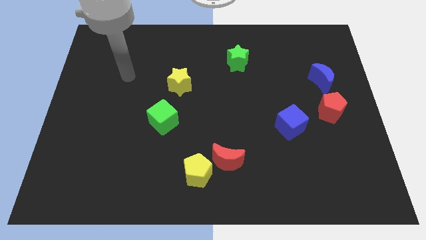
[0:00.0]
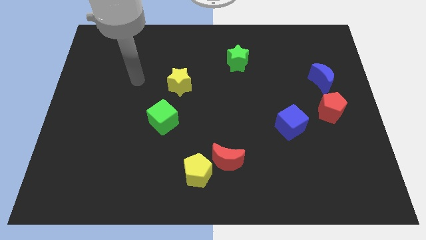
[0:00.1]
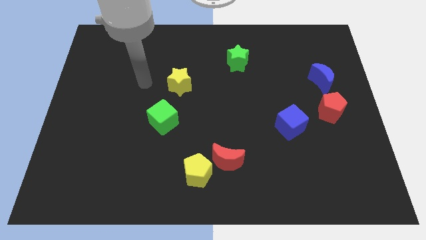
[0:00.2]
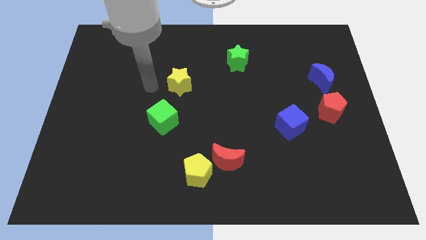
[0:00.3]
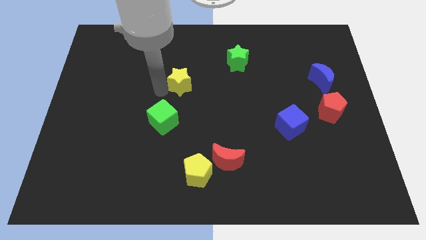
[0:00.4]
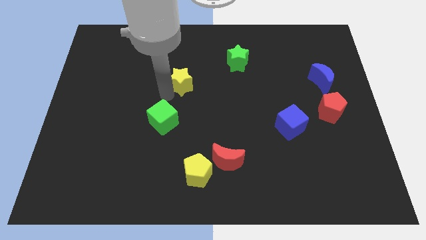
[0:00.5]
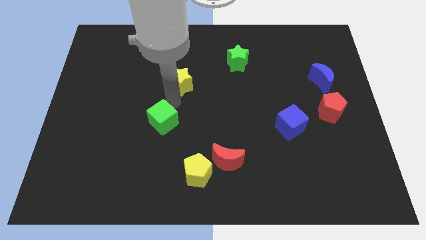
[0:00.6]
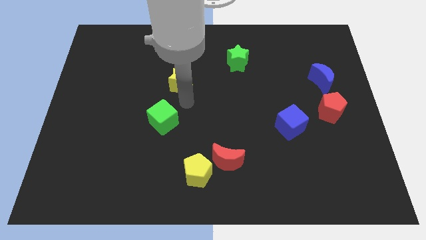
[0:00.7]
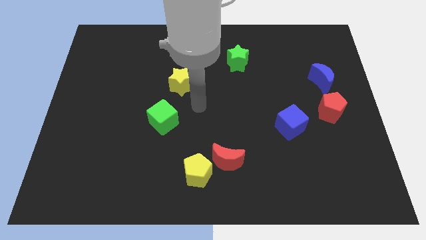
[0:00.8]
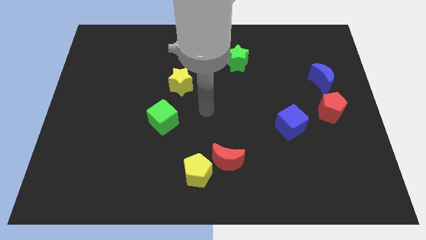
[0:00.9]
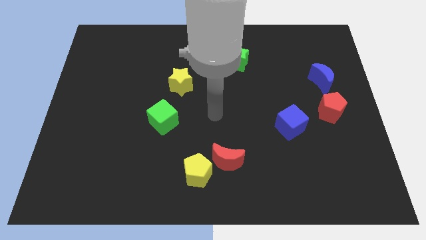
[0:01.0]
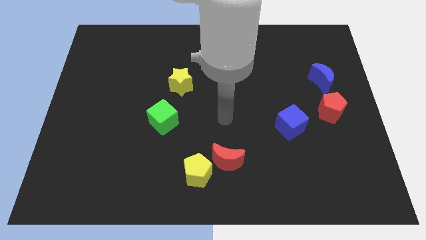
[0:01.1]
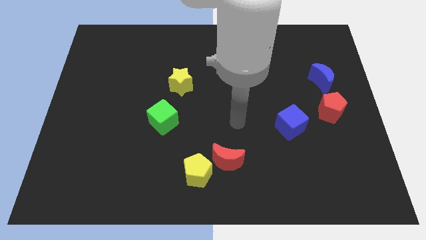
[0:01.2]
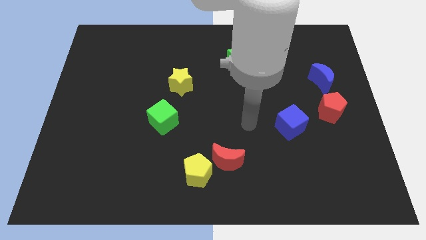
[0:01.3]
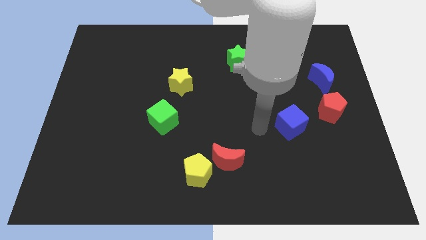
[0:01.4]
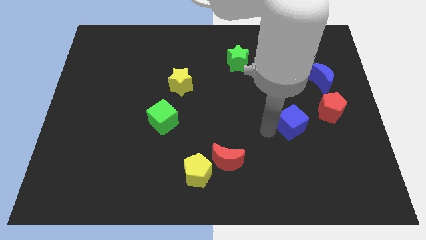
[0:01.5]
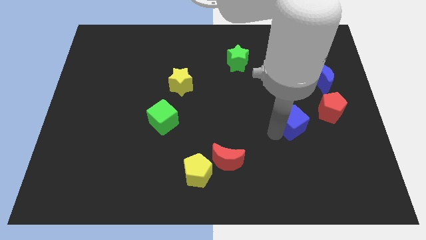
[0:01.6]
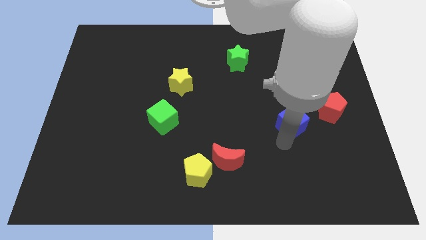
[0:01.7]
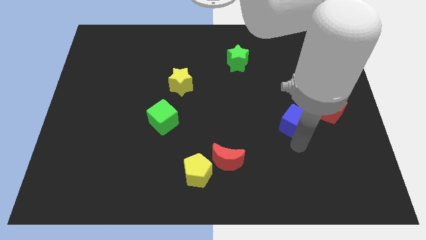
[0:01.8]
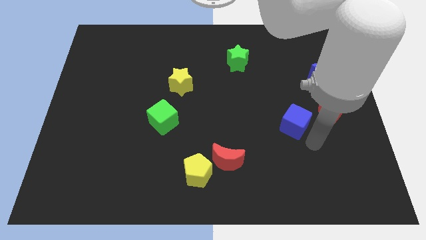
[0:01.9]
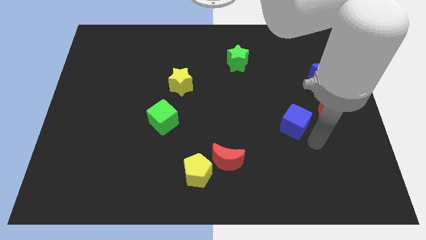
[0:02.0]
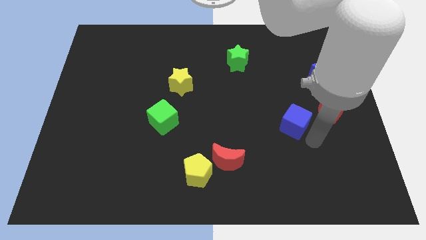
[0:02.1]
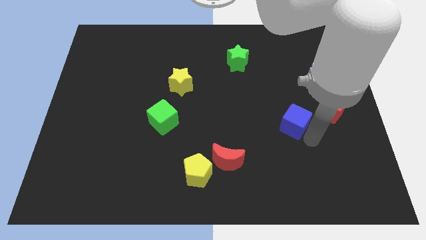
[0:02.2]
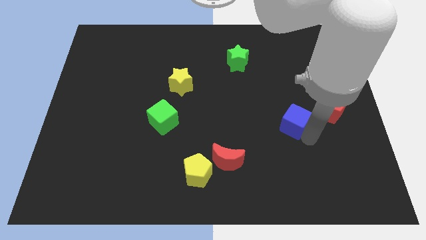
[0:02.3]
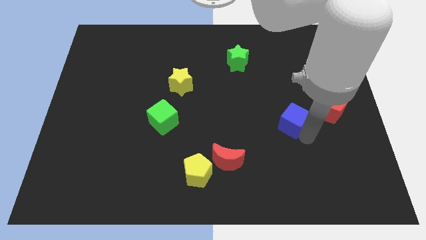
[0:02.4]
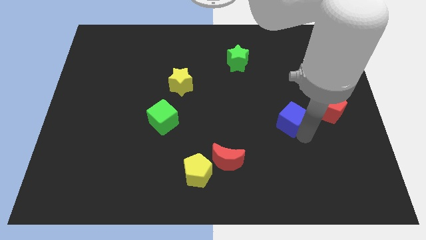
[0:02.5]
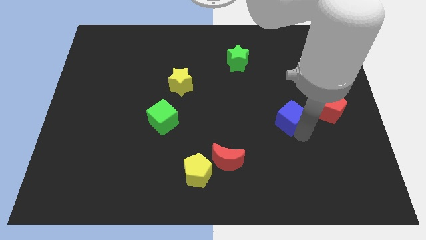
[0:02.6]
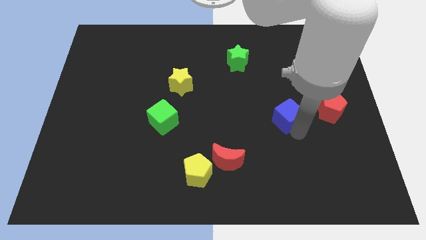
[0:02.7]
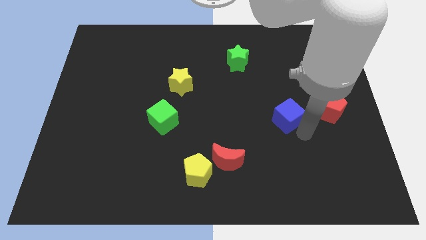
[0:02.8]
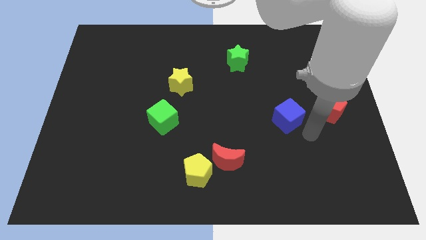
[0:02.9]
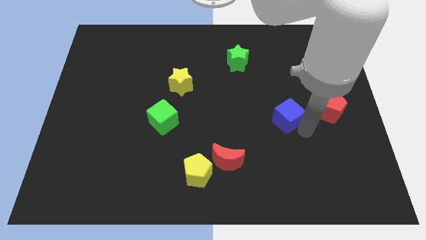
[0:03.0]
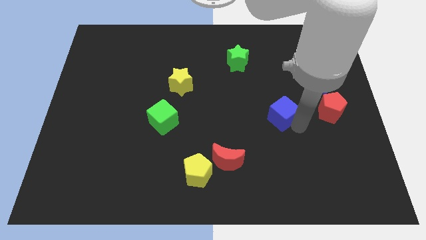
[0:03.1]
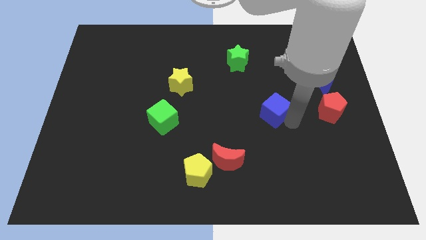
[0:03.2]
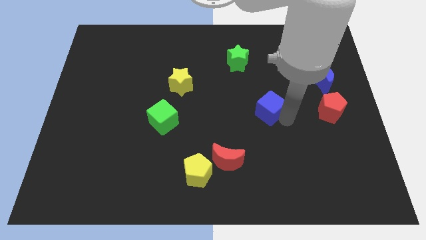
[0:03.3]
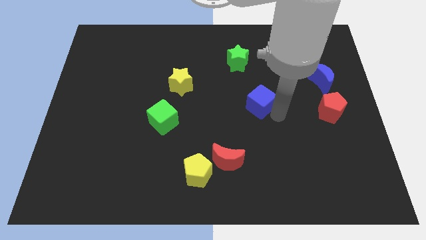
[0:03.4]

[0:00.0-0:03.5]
slightly slide the blue cube upwards and to the left diagonally

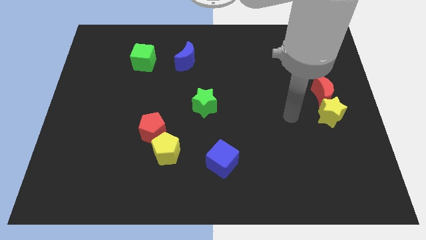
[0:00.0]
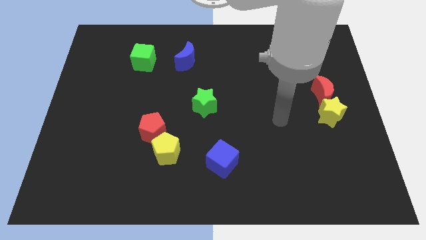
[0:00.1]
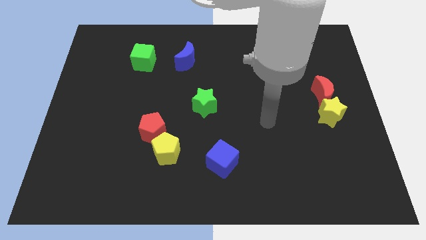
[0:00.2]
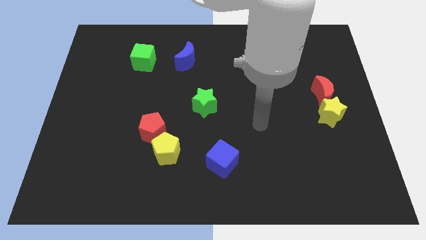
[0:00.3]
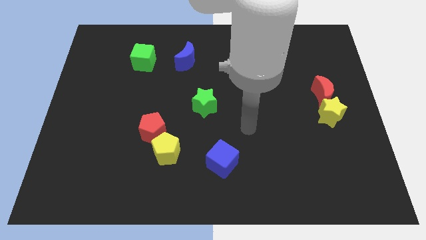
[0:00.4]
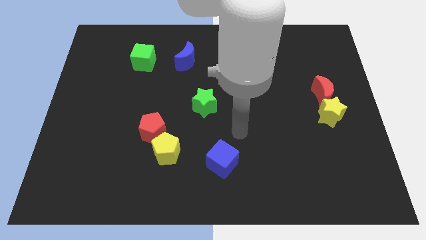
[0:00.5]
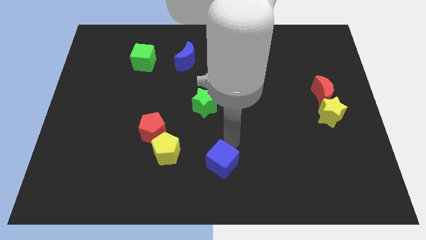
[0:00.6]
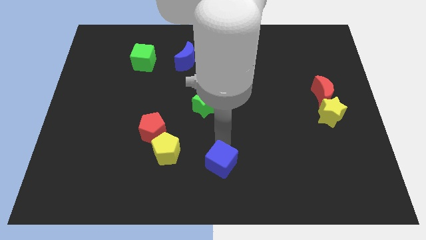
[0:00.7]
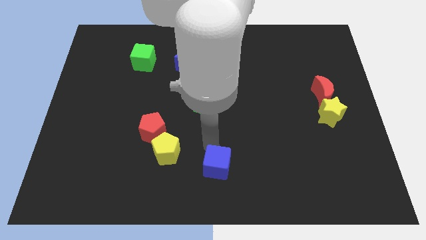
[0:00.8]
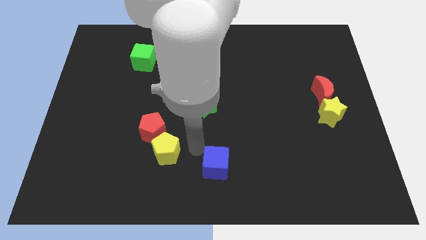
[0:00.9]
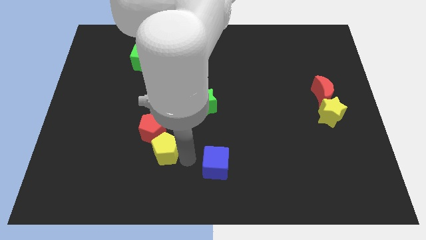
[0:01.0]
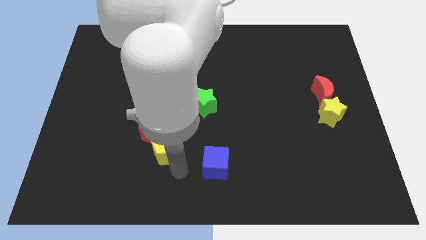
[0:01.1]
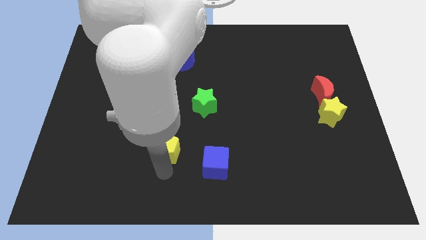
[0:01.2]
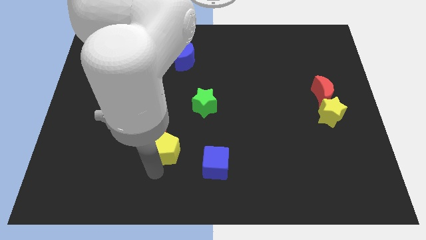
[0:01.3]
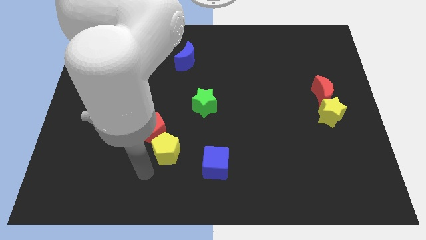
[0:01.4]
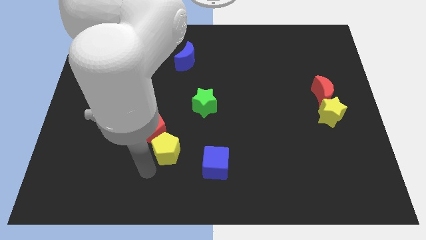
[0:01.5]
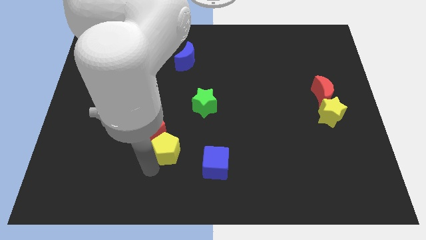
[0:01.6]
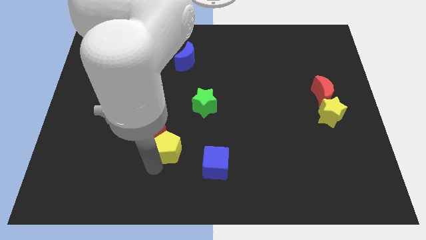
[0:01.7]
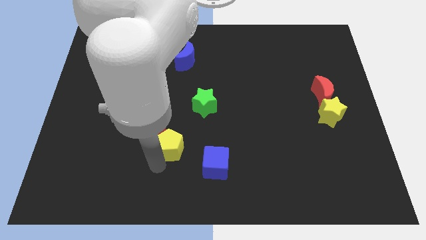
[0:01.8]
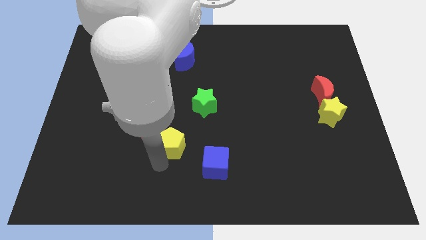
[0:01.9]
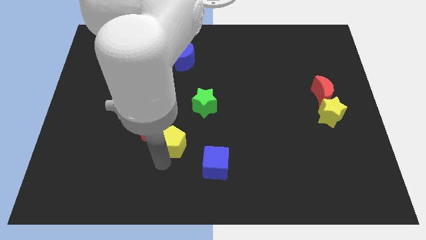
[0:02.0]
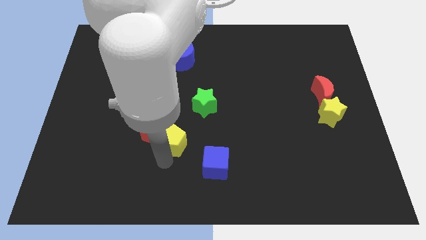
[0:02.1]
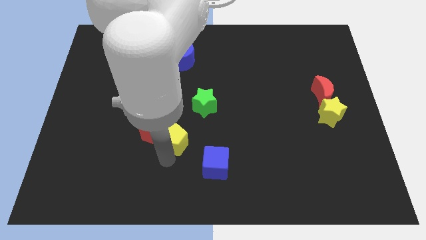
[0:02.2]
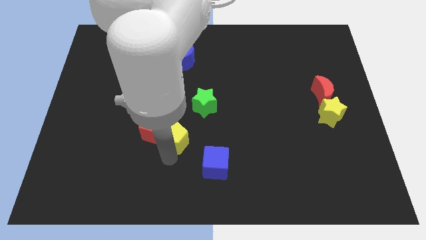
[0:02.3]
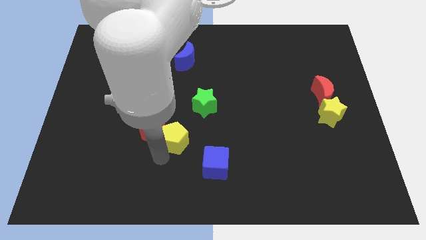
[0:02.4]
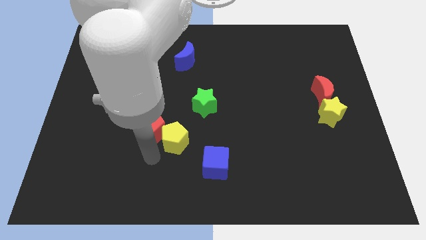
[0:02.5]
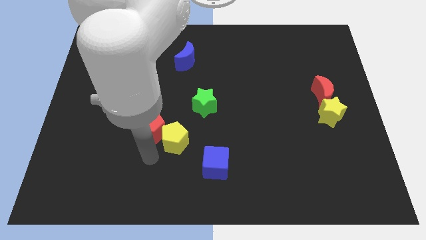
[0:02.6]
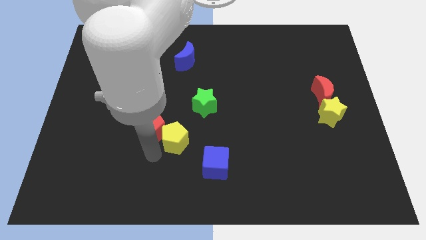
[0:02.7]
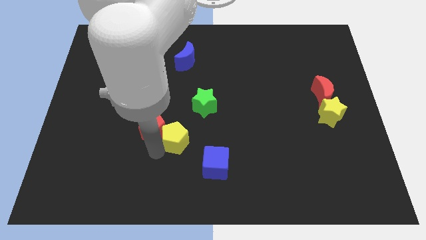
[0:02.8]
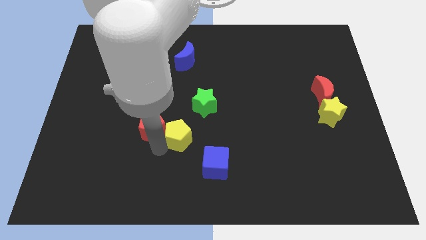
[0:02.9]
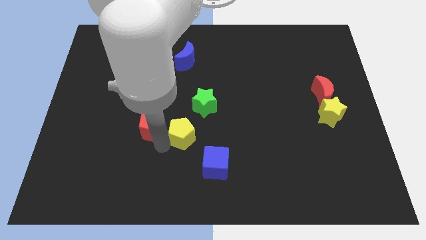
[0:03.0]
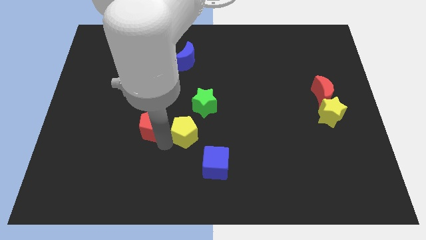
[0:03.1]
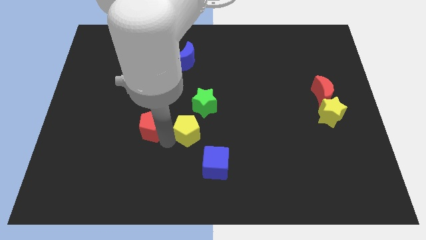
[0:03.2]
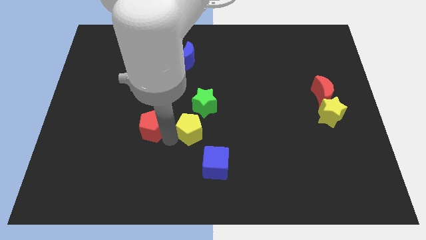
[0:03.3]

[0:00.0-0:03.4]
move the yellow pentagon somewhat up and to the right diagonally

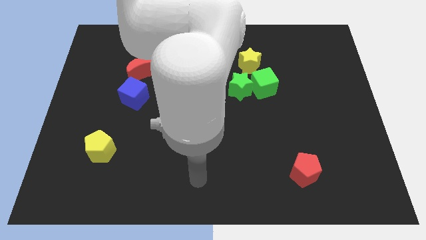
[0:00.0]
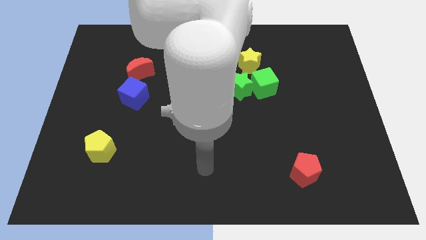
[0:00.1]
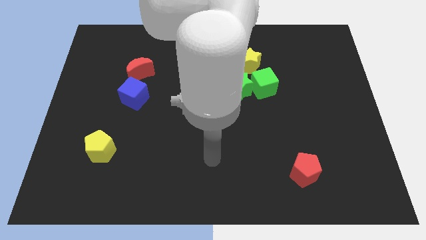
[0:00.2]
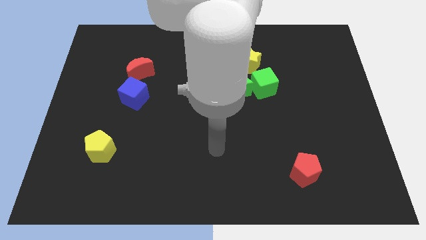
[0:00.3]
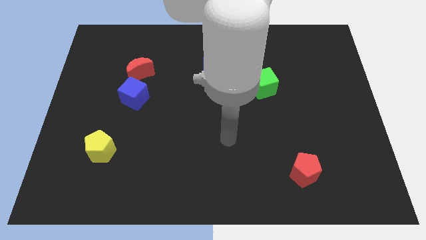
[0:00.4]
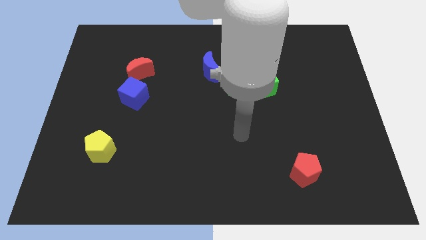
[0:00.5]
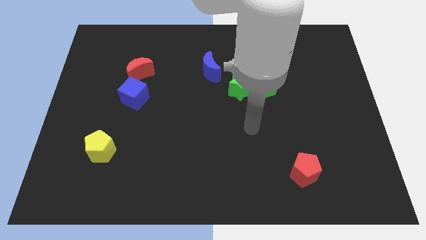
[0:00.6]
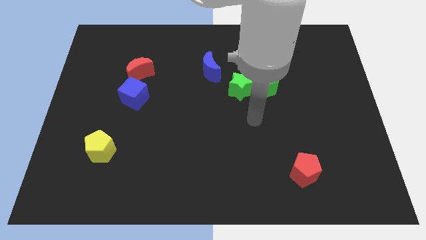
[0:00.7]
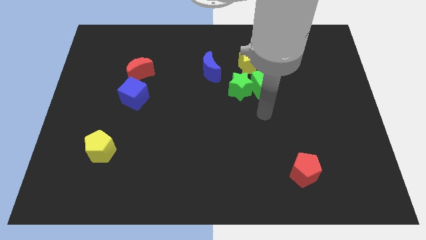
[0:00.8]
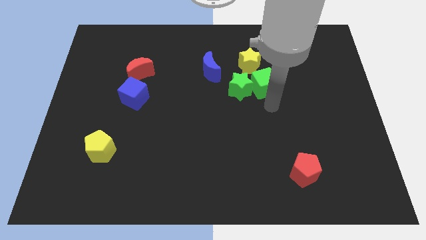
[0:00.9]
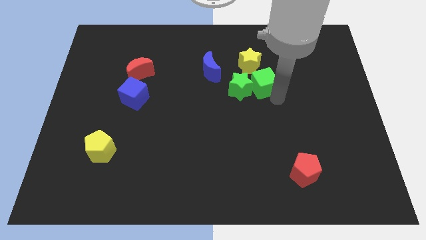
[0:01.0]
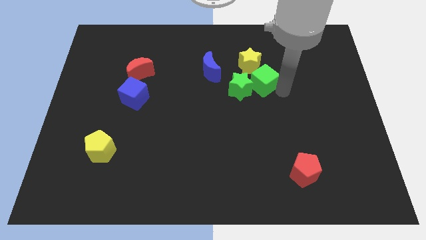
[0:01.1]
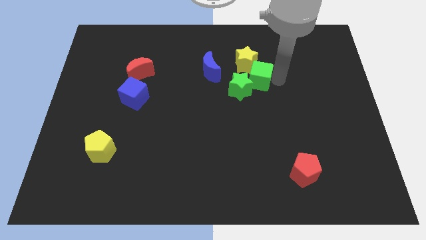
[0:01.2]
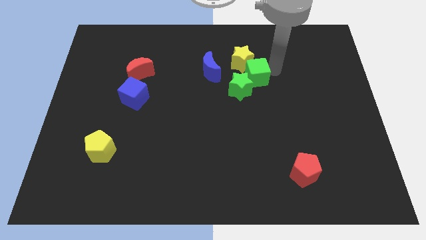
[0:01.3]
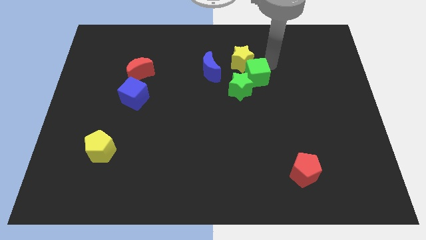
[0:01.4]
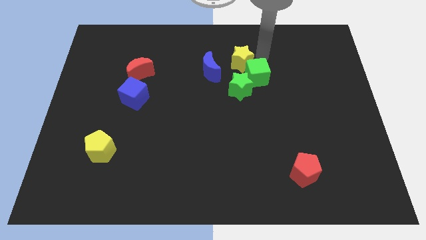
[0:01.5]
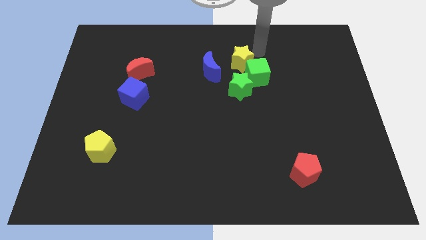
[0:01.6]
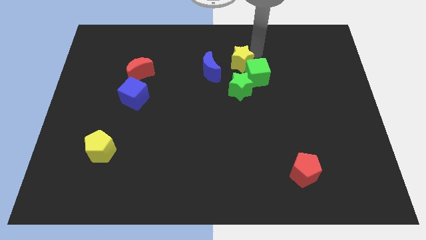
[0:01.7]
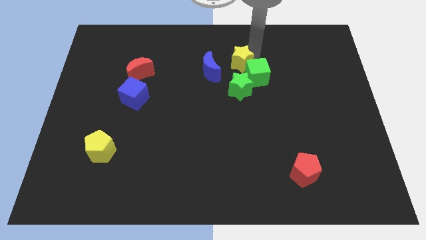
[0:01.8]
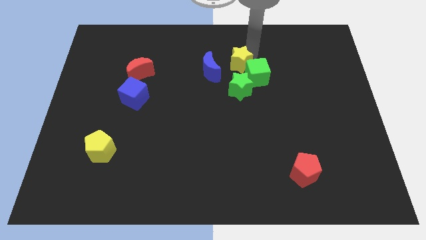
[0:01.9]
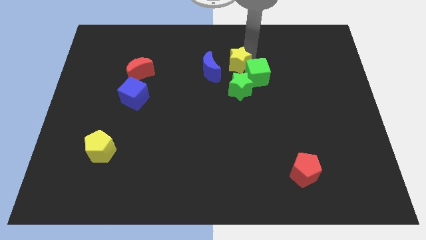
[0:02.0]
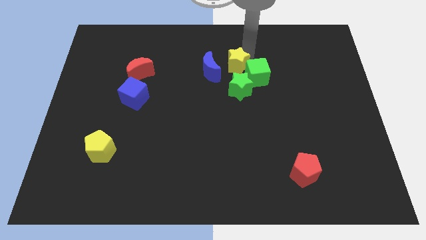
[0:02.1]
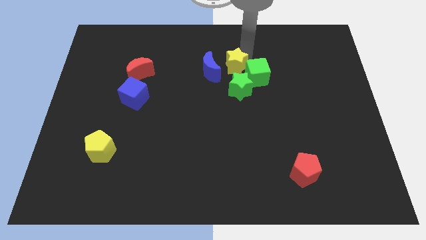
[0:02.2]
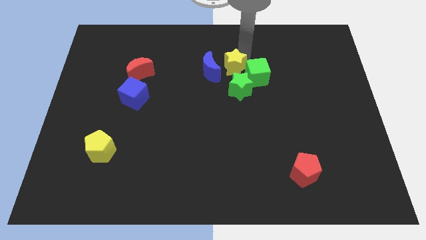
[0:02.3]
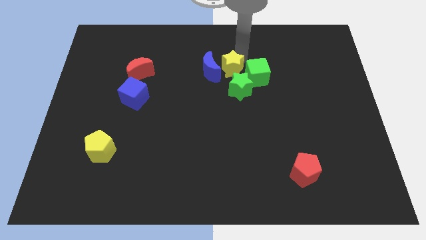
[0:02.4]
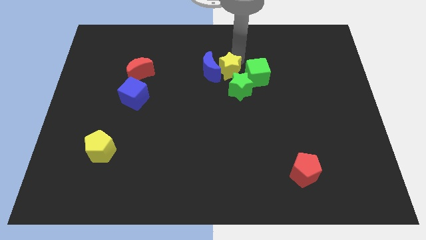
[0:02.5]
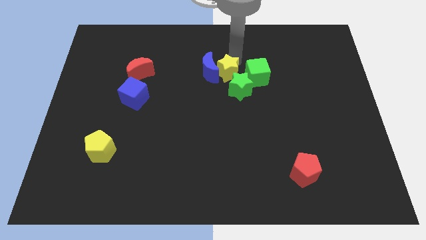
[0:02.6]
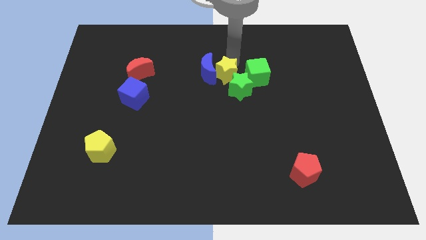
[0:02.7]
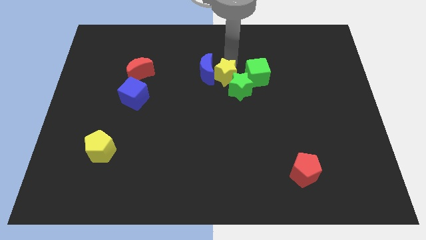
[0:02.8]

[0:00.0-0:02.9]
push the yellow star diagonally down and to the left slightly
